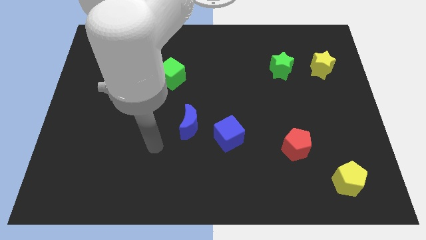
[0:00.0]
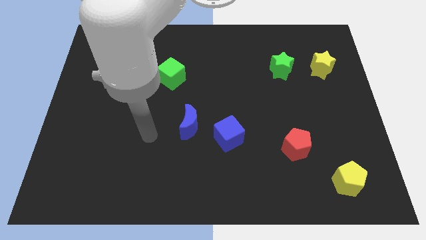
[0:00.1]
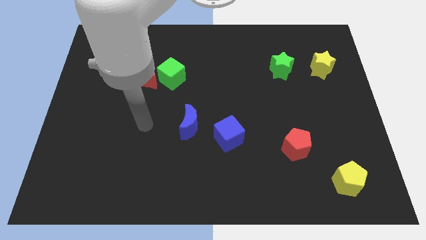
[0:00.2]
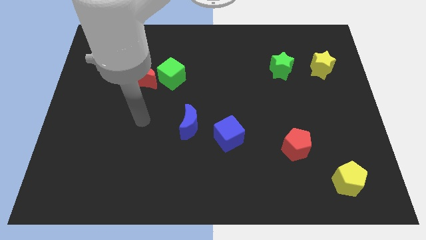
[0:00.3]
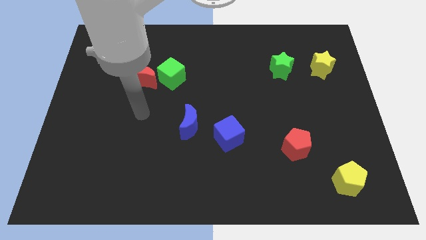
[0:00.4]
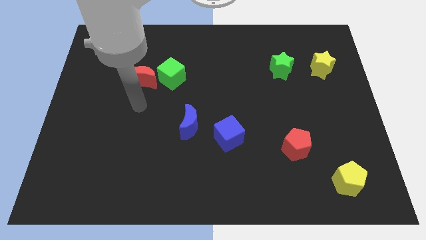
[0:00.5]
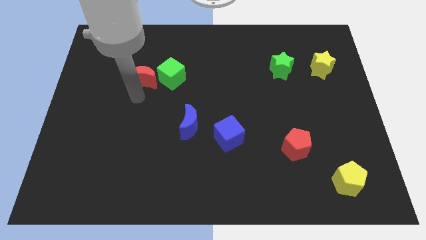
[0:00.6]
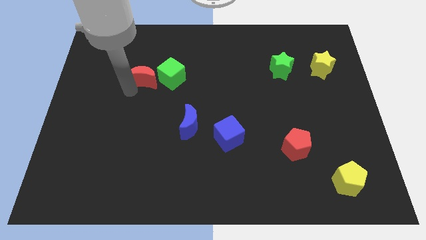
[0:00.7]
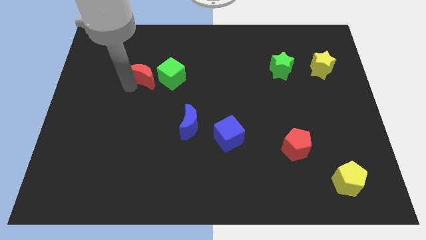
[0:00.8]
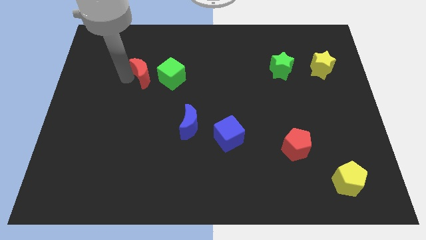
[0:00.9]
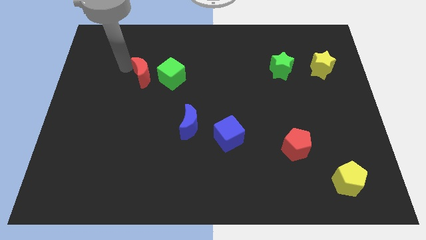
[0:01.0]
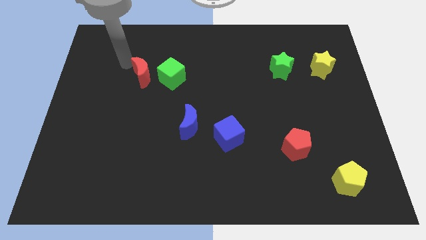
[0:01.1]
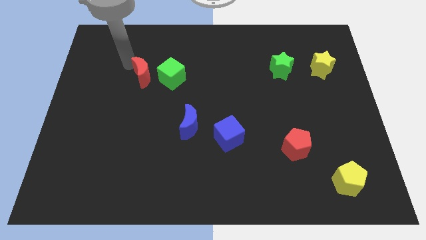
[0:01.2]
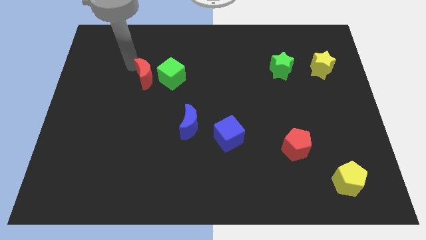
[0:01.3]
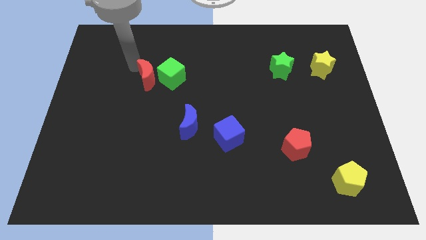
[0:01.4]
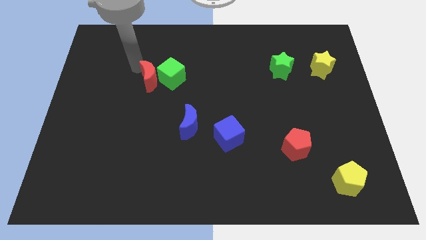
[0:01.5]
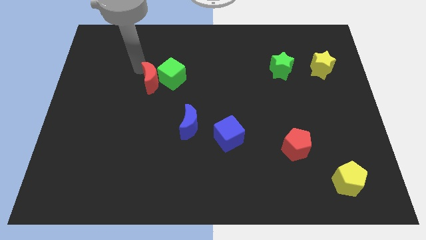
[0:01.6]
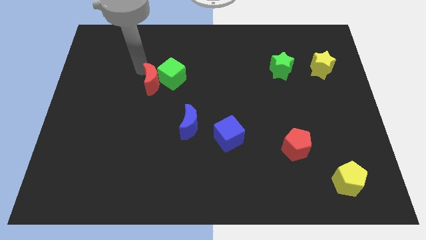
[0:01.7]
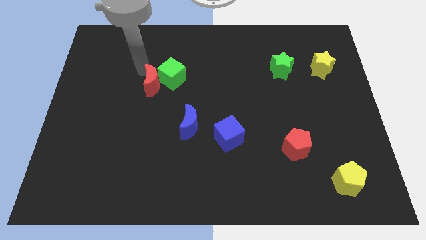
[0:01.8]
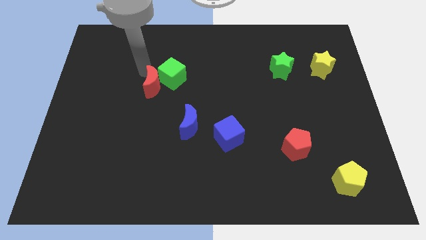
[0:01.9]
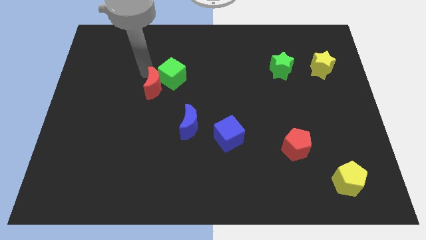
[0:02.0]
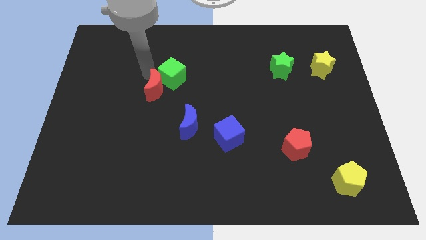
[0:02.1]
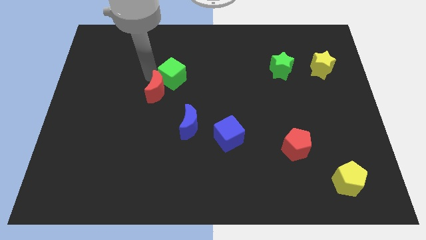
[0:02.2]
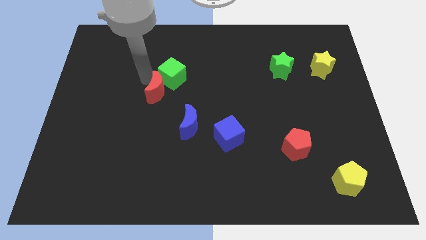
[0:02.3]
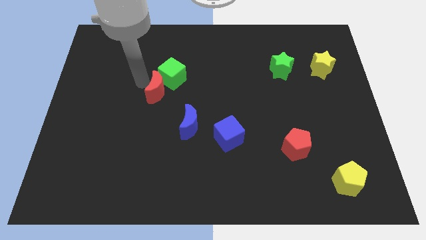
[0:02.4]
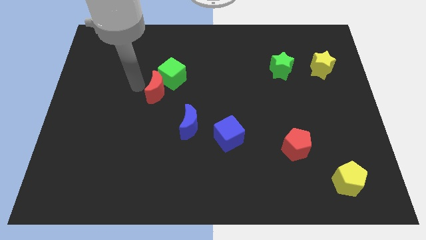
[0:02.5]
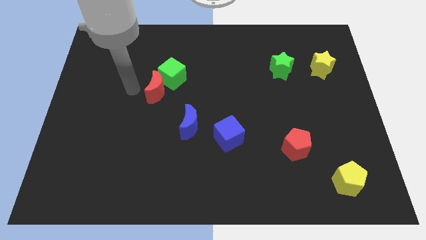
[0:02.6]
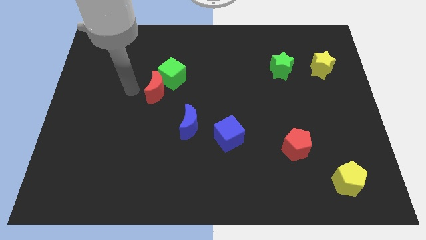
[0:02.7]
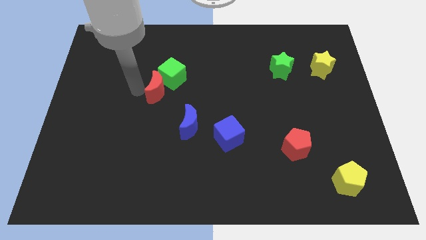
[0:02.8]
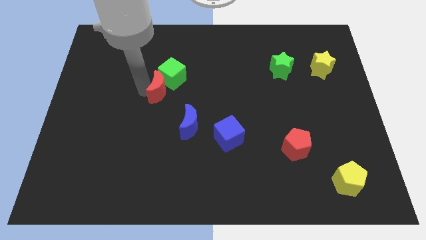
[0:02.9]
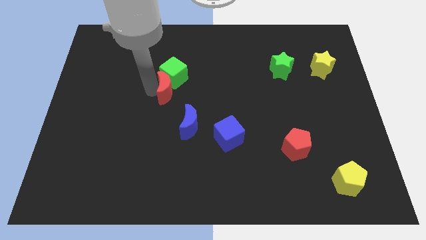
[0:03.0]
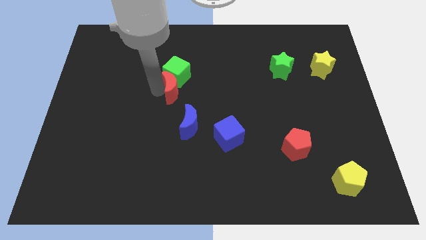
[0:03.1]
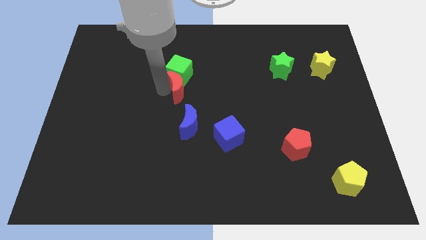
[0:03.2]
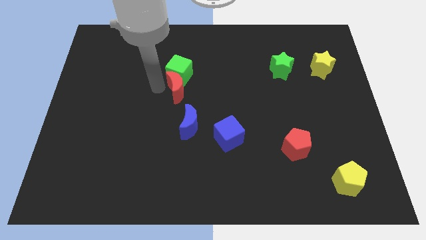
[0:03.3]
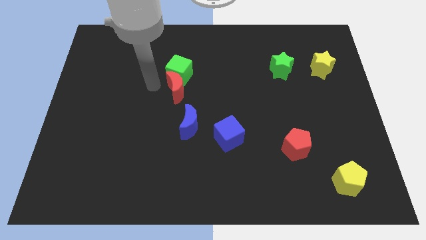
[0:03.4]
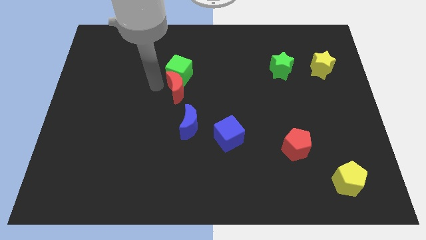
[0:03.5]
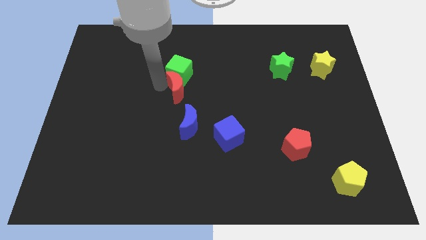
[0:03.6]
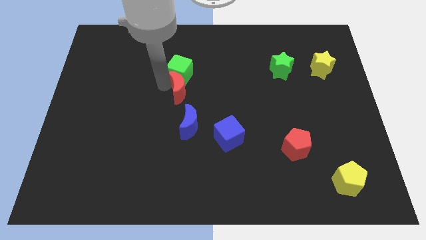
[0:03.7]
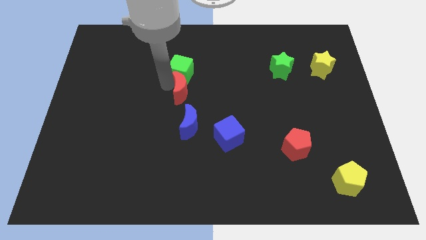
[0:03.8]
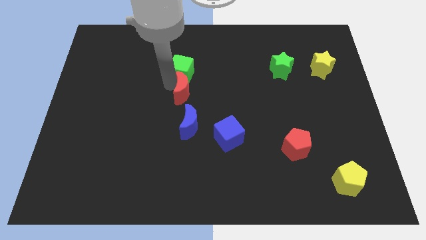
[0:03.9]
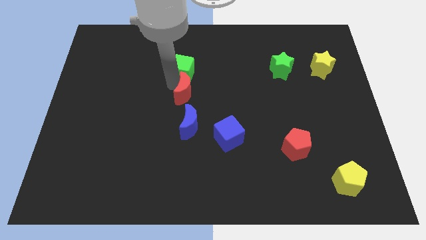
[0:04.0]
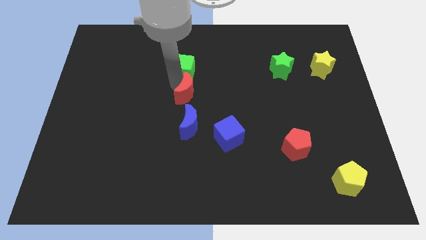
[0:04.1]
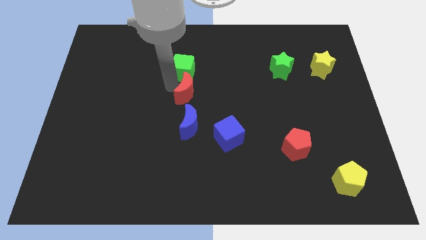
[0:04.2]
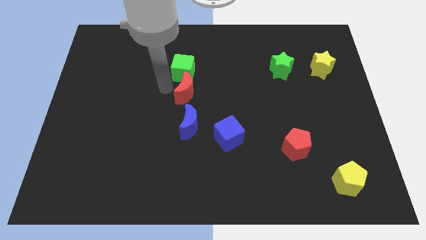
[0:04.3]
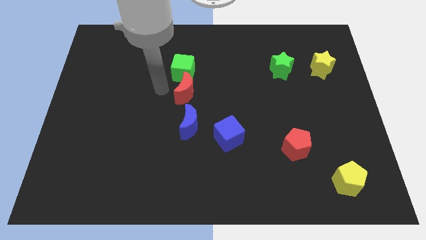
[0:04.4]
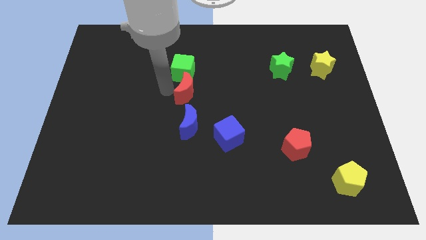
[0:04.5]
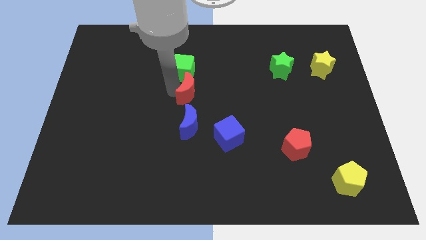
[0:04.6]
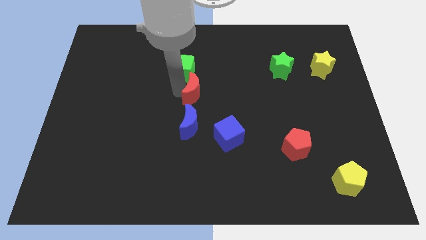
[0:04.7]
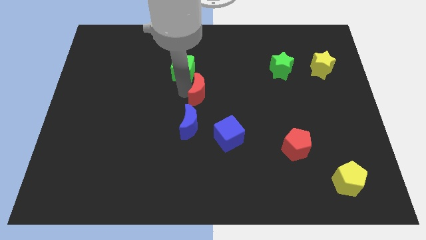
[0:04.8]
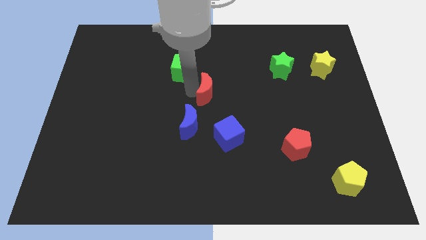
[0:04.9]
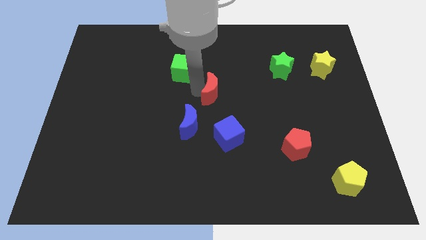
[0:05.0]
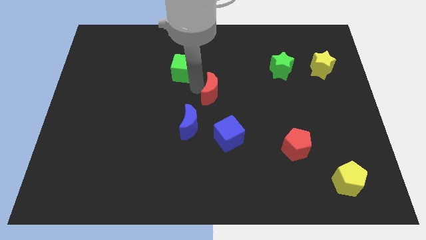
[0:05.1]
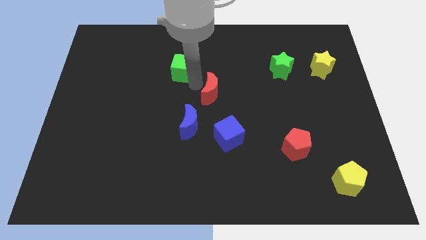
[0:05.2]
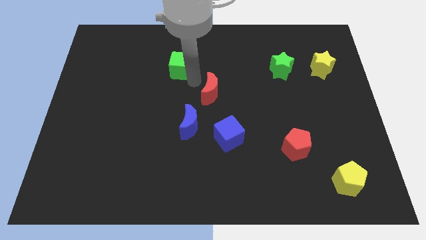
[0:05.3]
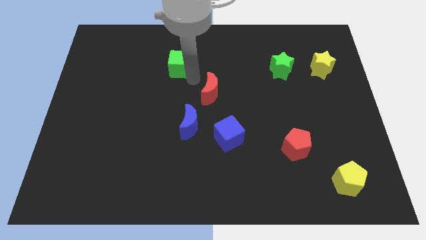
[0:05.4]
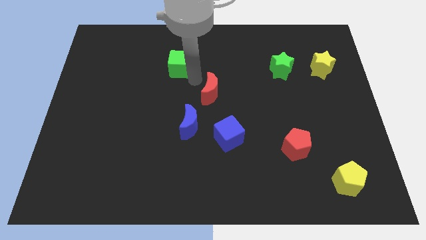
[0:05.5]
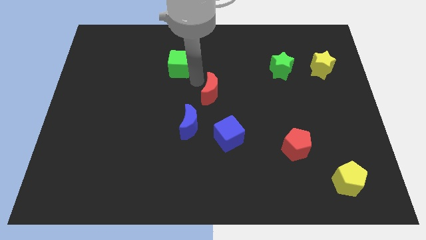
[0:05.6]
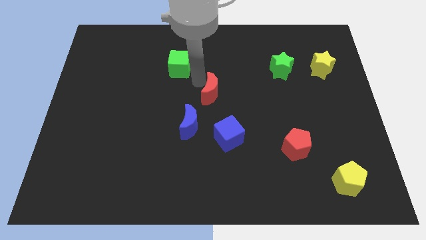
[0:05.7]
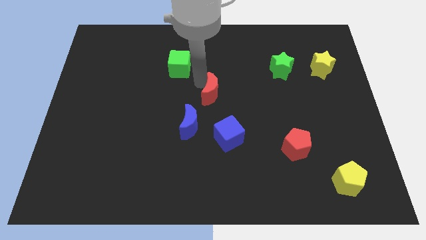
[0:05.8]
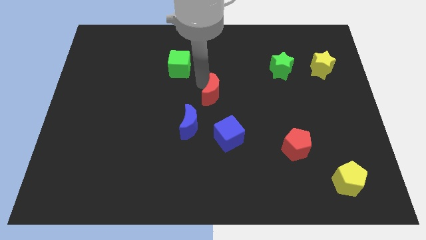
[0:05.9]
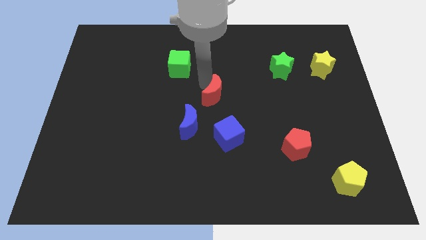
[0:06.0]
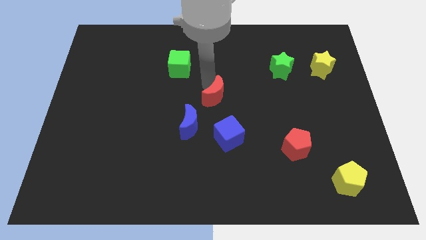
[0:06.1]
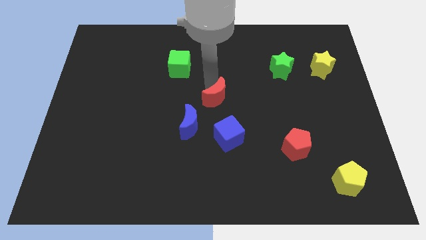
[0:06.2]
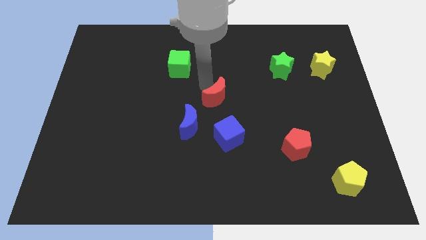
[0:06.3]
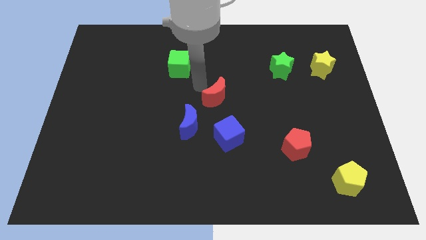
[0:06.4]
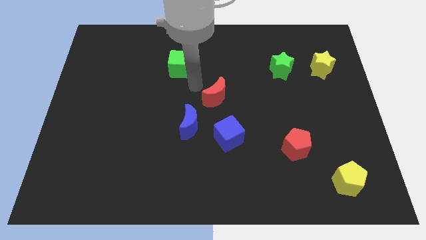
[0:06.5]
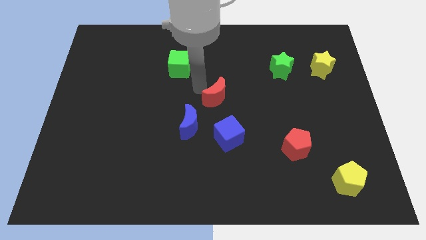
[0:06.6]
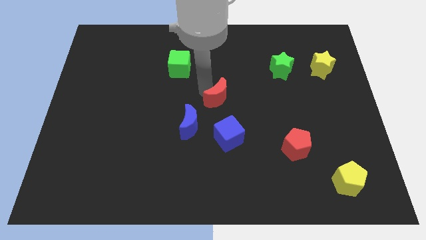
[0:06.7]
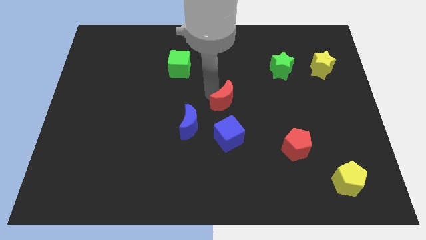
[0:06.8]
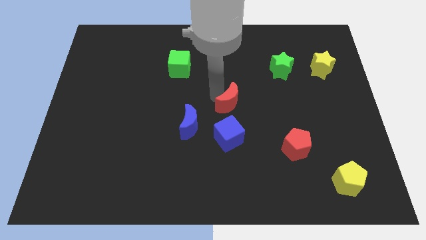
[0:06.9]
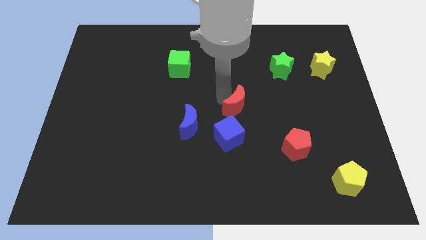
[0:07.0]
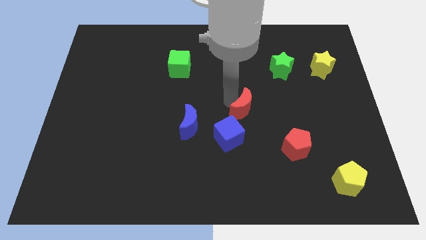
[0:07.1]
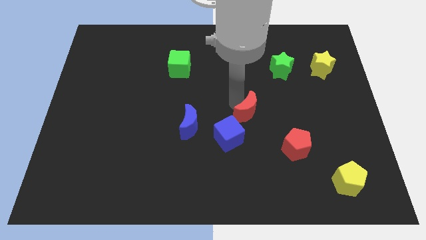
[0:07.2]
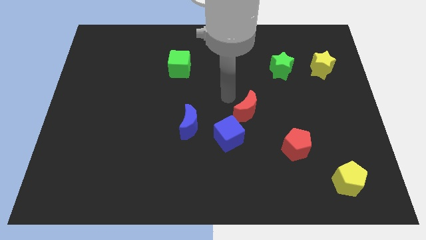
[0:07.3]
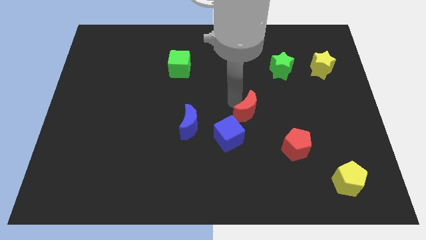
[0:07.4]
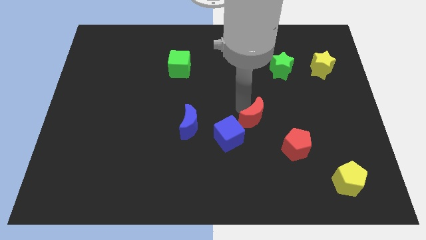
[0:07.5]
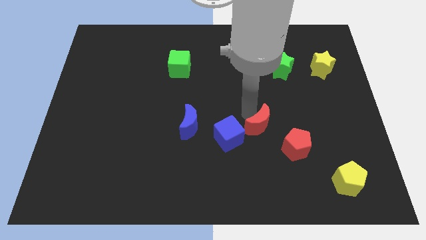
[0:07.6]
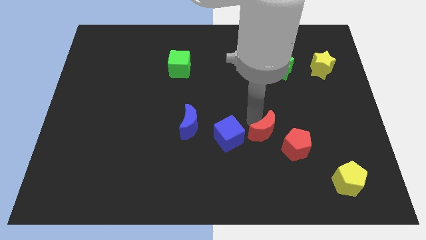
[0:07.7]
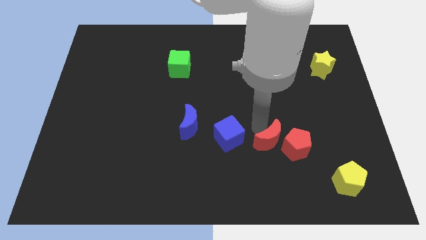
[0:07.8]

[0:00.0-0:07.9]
slide the red moon next to the red pentagon
